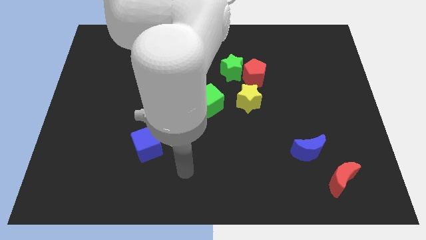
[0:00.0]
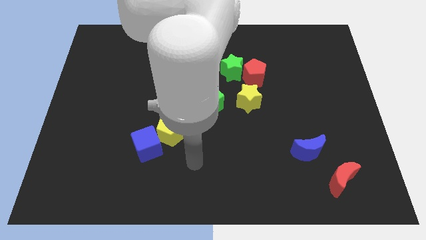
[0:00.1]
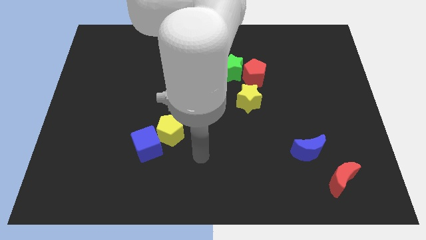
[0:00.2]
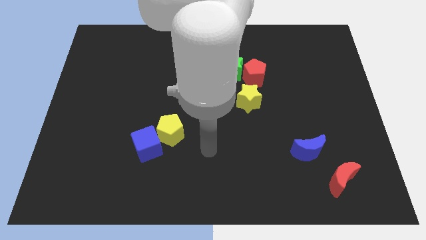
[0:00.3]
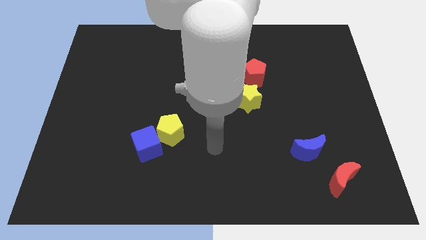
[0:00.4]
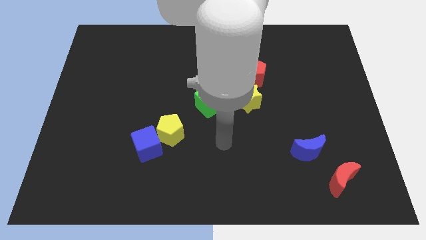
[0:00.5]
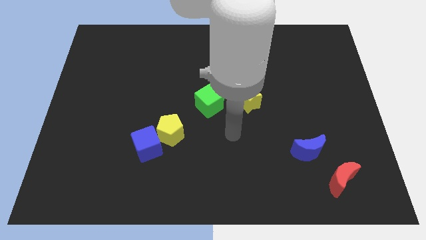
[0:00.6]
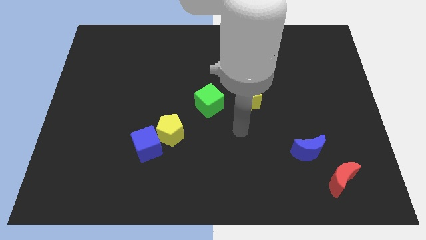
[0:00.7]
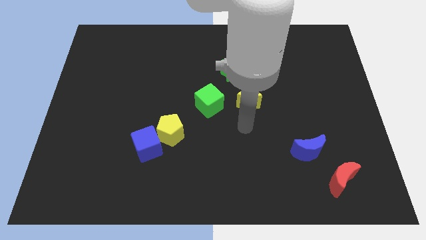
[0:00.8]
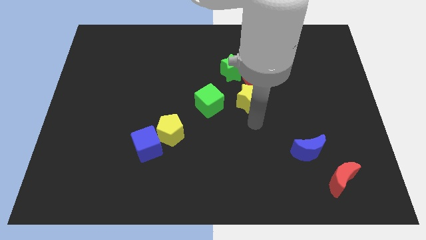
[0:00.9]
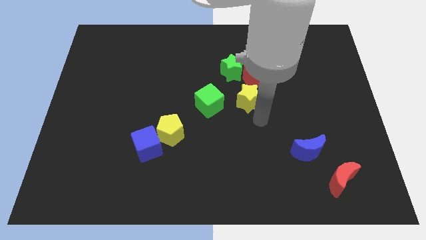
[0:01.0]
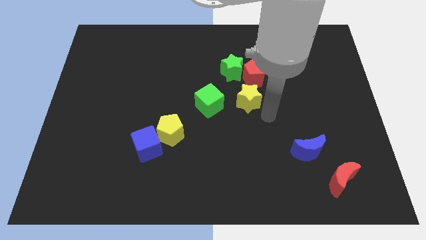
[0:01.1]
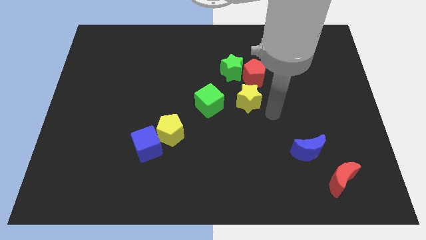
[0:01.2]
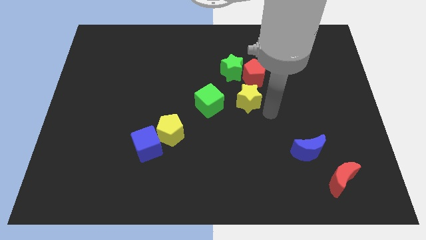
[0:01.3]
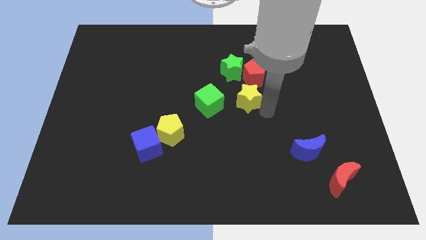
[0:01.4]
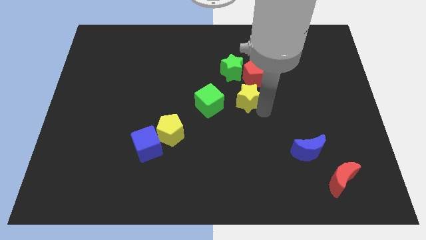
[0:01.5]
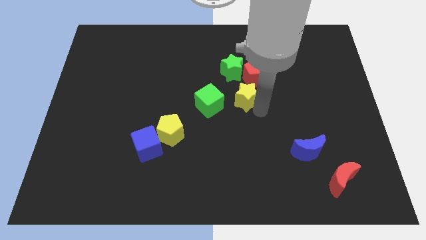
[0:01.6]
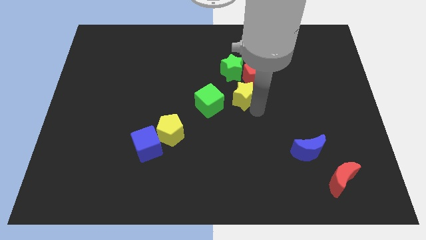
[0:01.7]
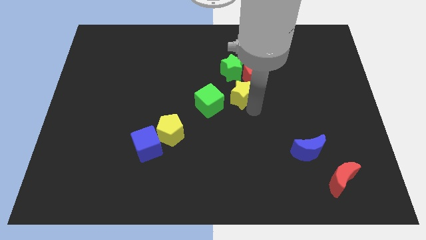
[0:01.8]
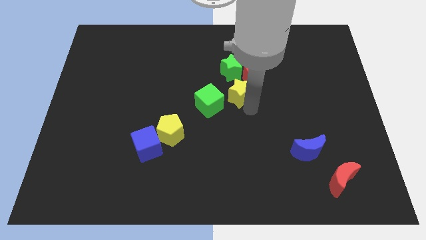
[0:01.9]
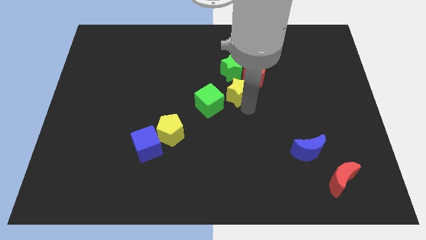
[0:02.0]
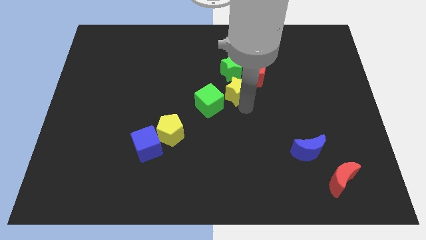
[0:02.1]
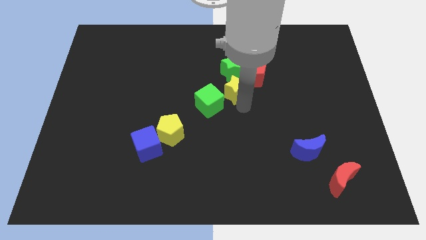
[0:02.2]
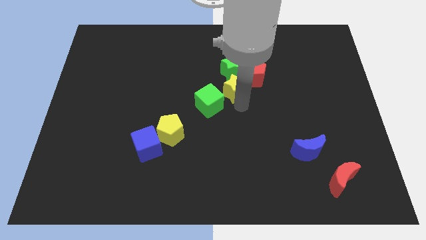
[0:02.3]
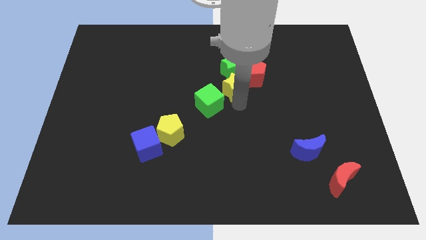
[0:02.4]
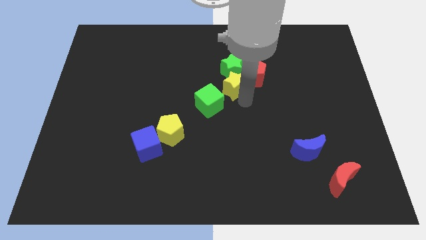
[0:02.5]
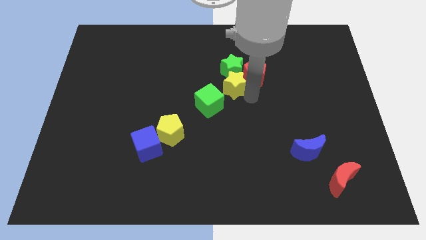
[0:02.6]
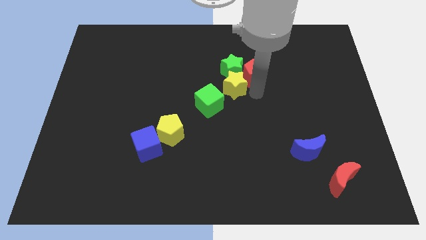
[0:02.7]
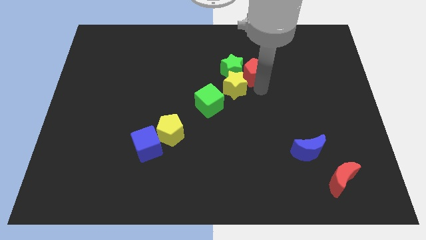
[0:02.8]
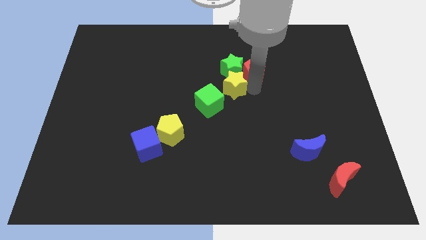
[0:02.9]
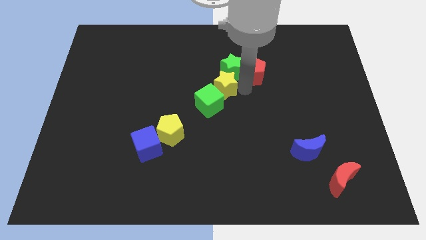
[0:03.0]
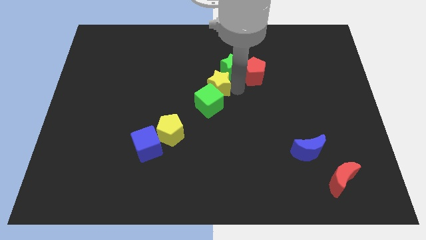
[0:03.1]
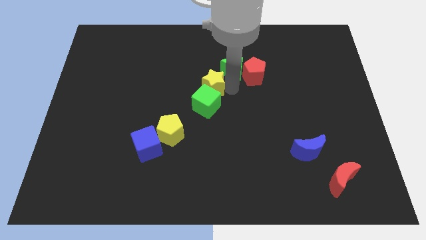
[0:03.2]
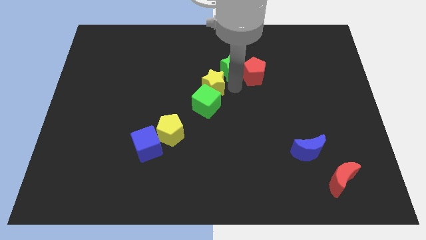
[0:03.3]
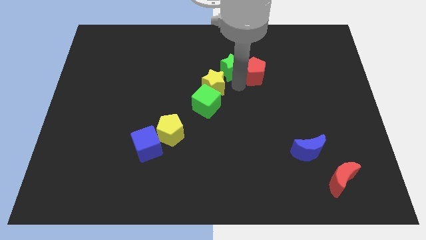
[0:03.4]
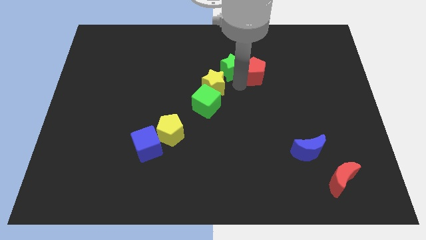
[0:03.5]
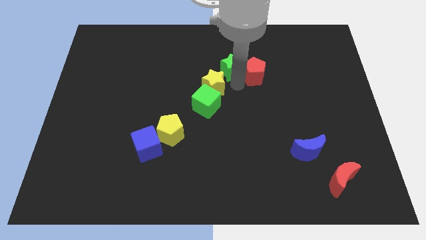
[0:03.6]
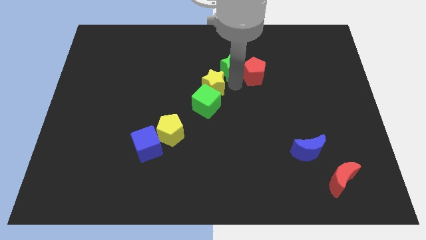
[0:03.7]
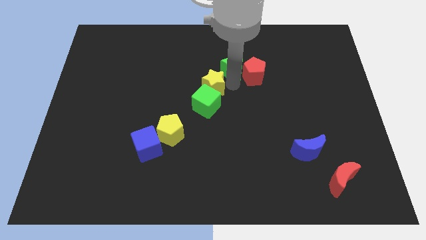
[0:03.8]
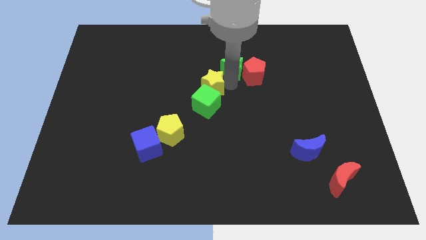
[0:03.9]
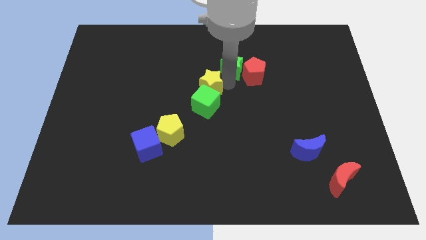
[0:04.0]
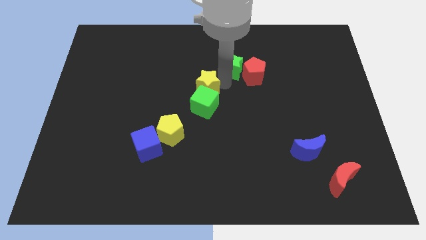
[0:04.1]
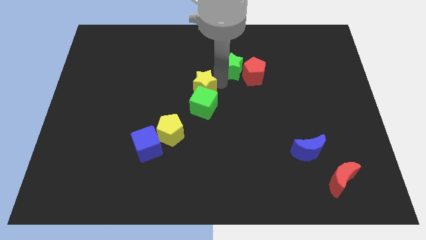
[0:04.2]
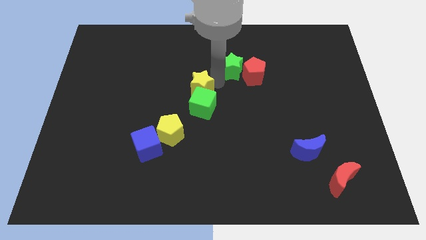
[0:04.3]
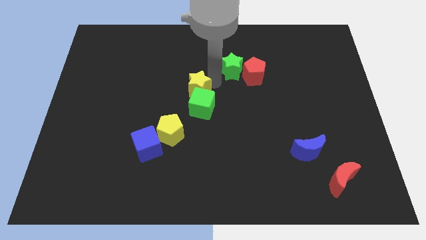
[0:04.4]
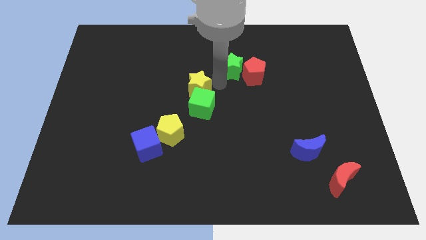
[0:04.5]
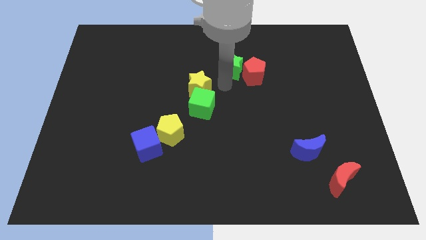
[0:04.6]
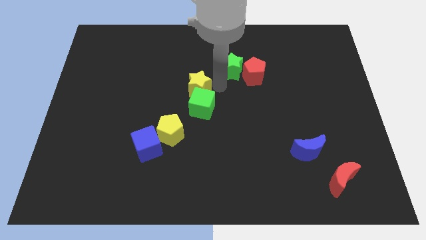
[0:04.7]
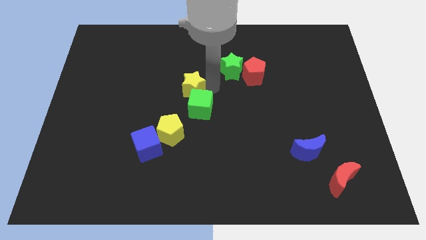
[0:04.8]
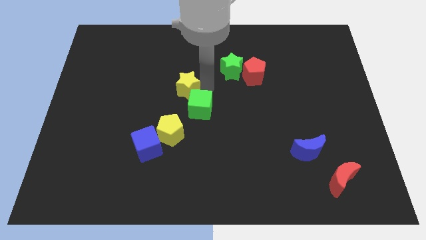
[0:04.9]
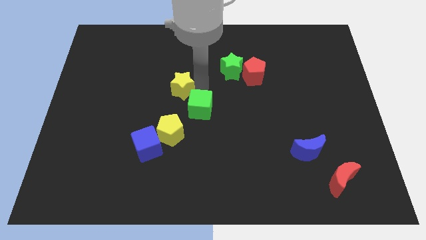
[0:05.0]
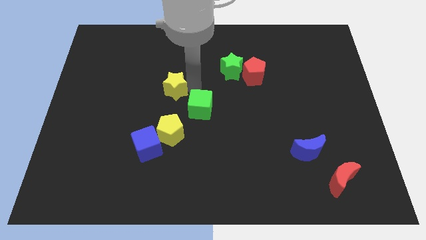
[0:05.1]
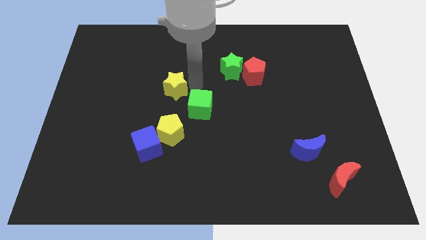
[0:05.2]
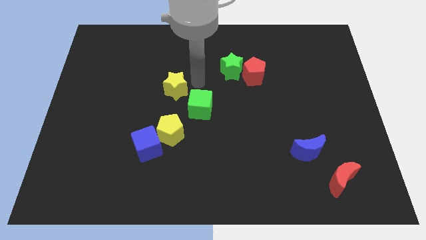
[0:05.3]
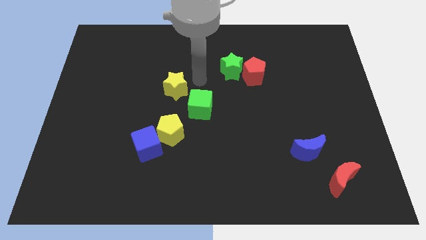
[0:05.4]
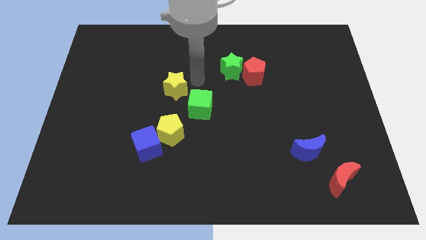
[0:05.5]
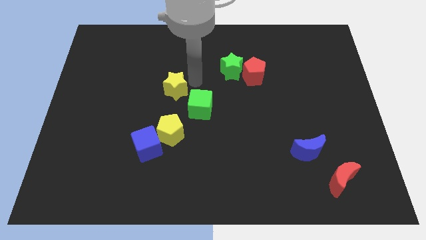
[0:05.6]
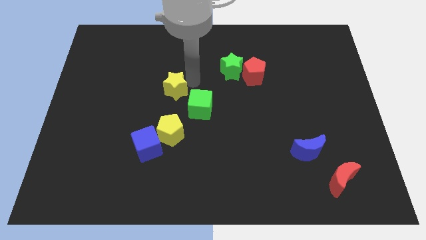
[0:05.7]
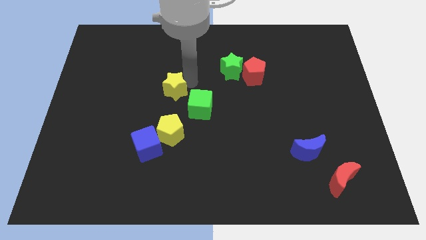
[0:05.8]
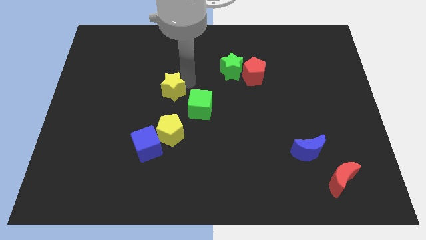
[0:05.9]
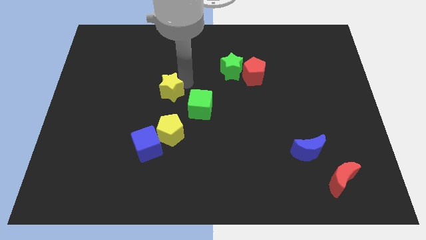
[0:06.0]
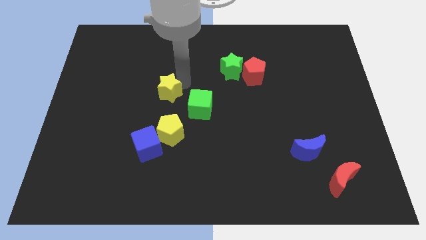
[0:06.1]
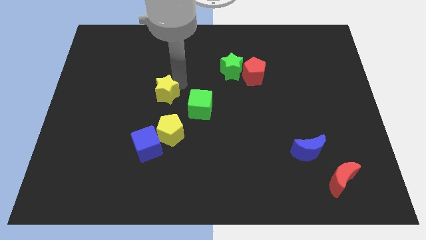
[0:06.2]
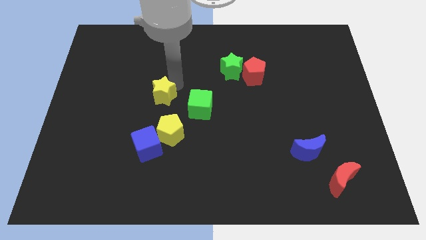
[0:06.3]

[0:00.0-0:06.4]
push the yellow star to the left

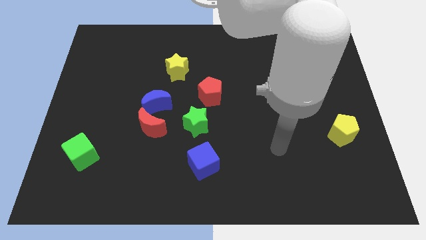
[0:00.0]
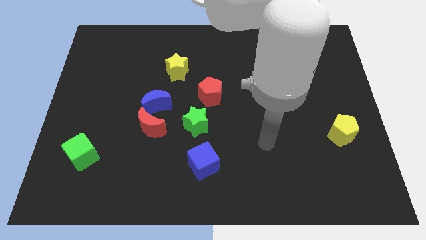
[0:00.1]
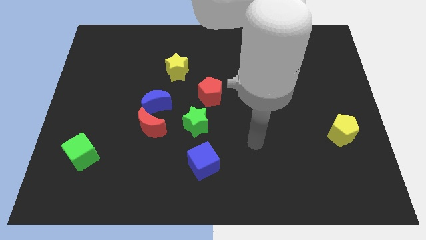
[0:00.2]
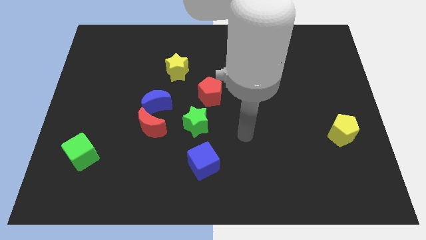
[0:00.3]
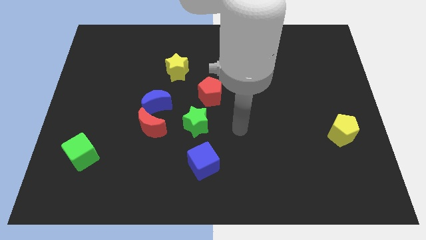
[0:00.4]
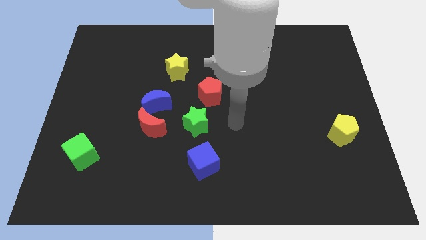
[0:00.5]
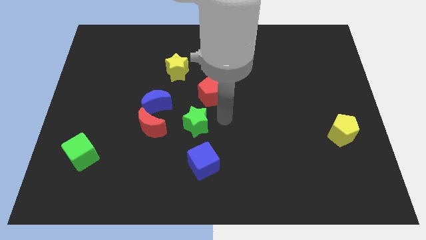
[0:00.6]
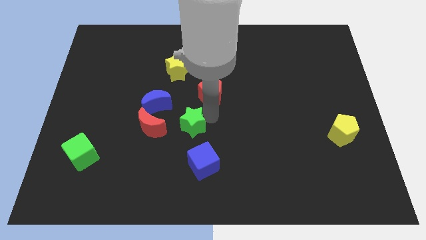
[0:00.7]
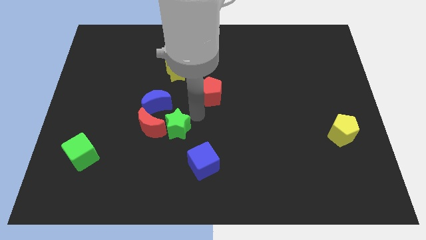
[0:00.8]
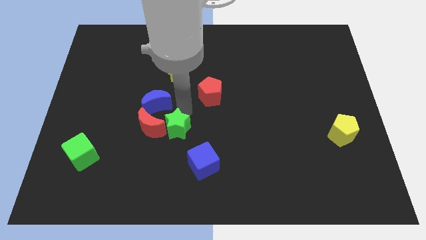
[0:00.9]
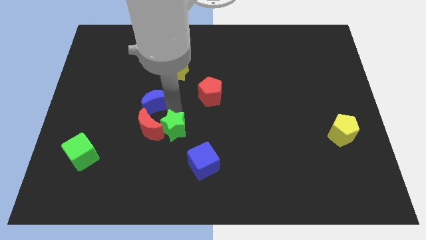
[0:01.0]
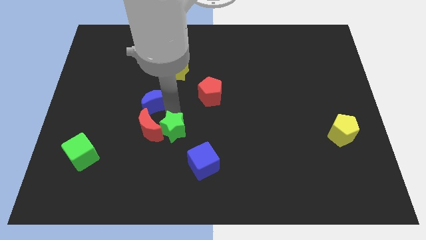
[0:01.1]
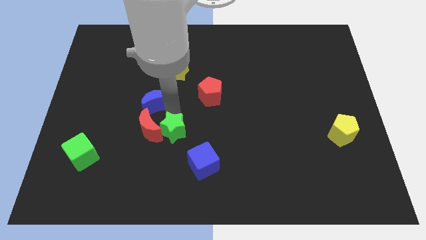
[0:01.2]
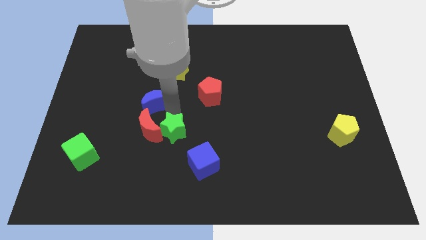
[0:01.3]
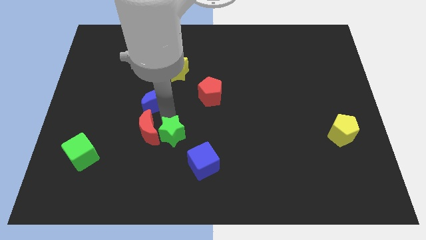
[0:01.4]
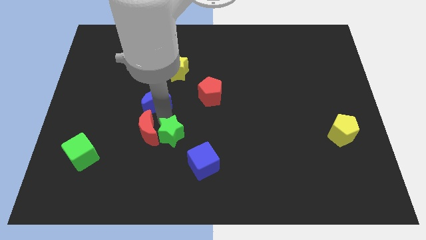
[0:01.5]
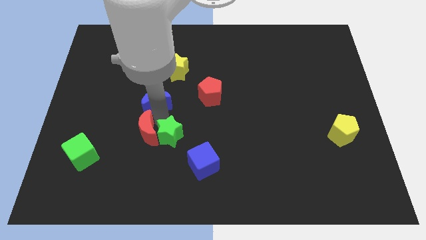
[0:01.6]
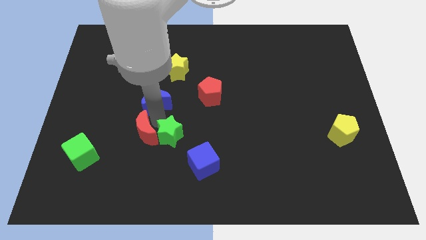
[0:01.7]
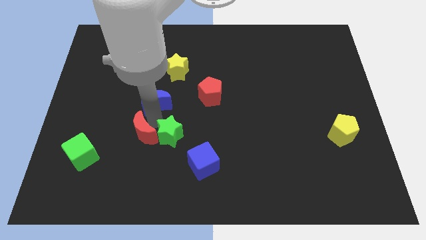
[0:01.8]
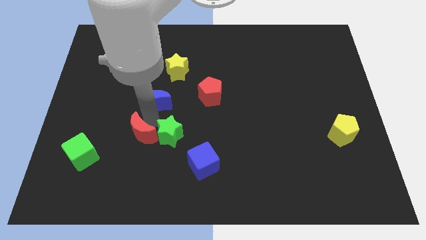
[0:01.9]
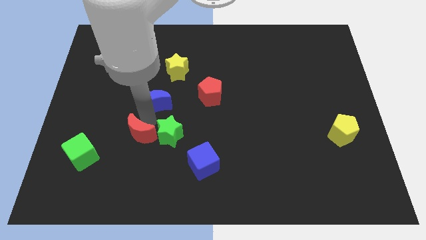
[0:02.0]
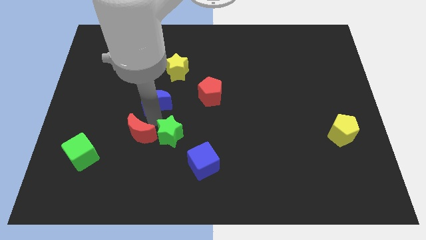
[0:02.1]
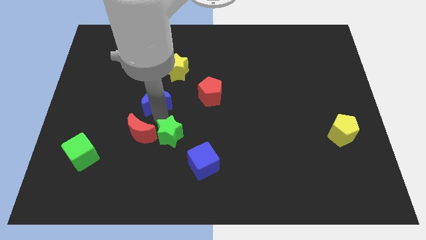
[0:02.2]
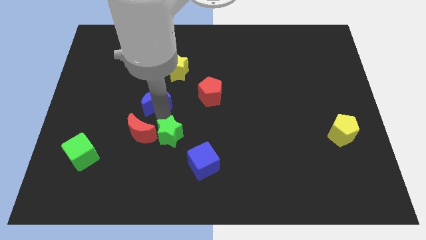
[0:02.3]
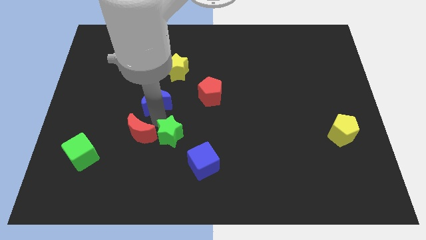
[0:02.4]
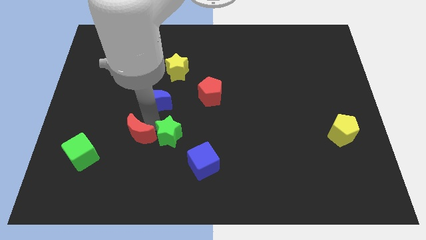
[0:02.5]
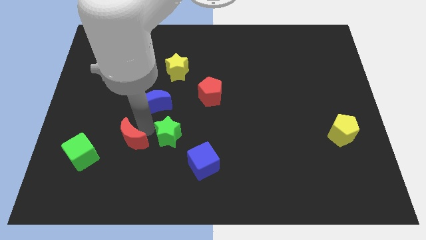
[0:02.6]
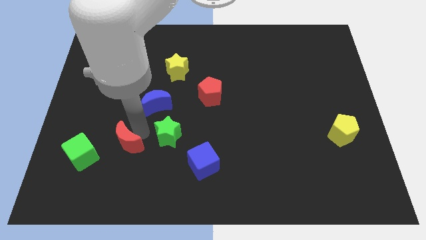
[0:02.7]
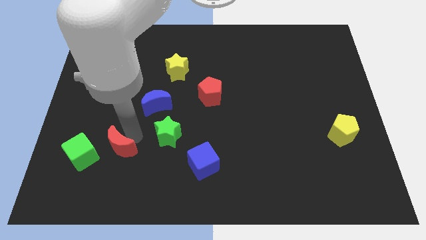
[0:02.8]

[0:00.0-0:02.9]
push the red moon somewhat downwards and left
